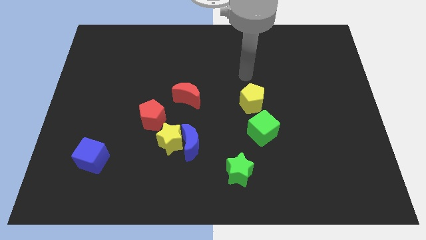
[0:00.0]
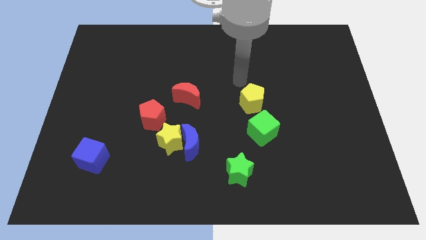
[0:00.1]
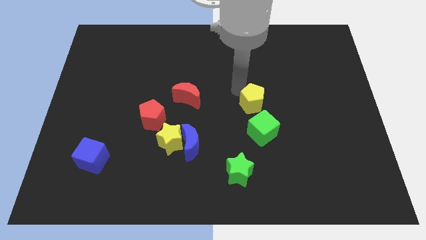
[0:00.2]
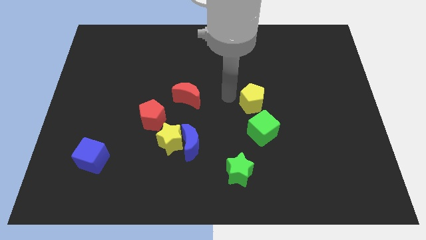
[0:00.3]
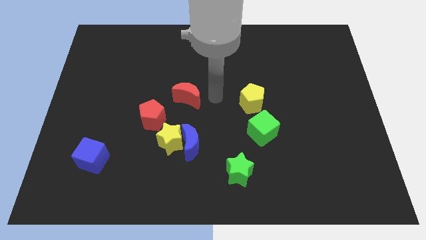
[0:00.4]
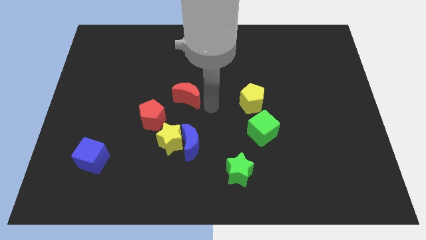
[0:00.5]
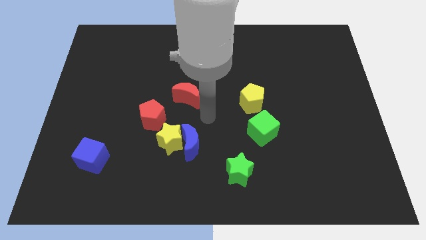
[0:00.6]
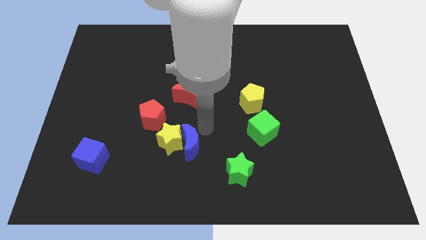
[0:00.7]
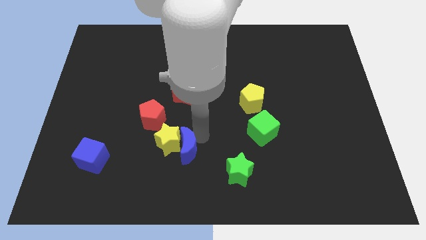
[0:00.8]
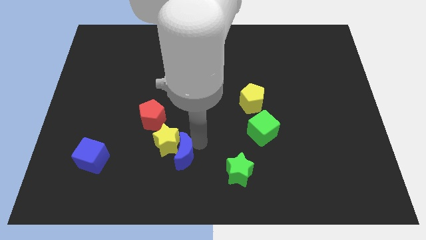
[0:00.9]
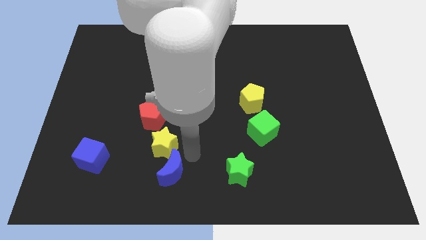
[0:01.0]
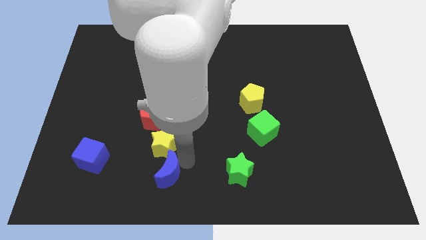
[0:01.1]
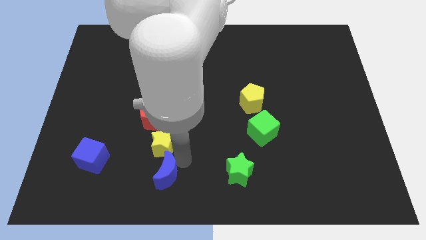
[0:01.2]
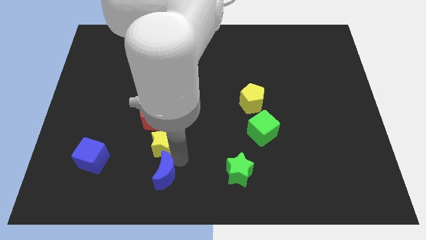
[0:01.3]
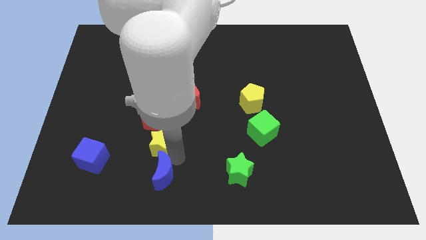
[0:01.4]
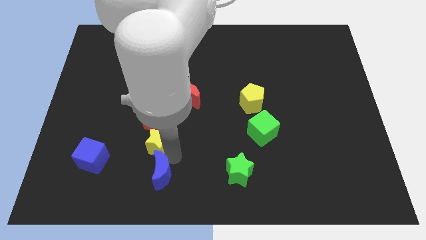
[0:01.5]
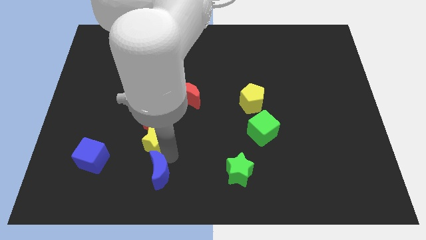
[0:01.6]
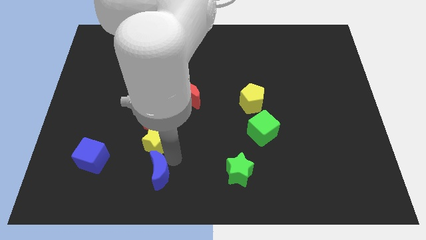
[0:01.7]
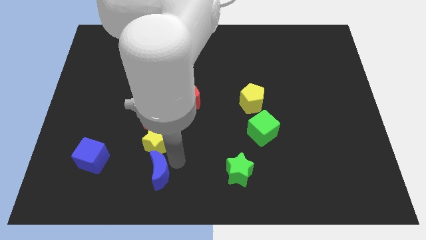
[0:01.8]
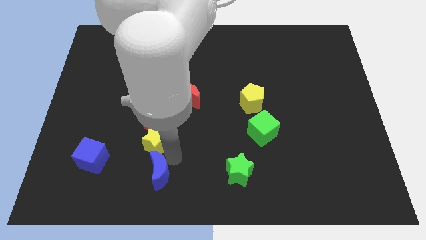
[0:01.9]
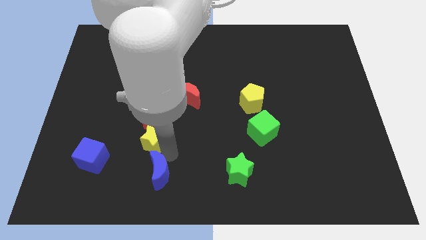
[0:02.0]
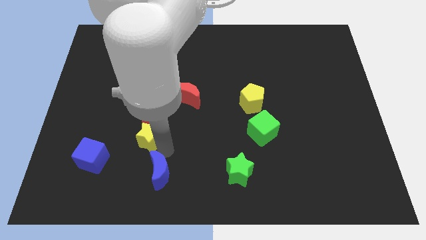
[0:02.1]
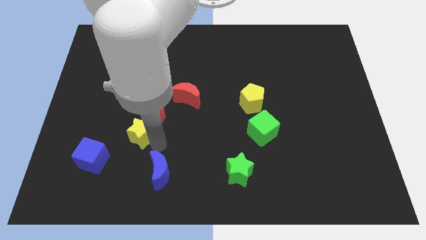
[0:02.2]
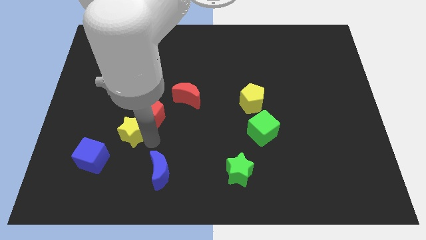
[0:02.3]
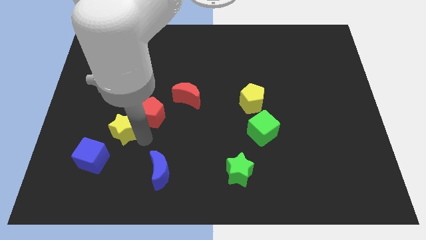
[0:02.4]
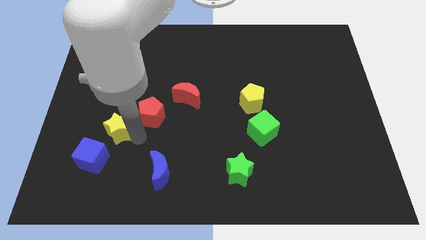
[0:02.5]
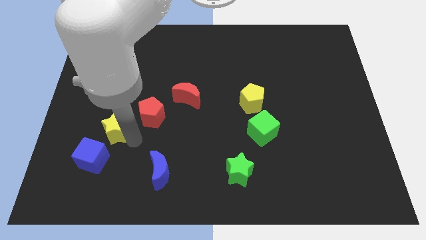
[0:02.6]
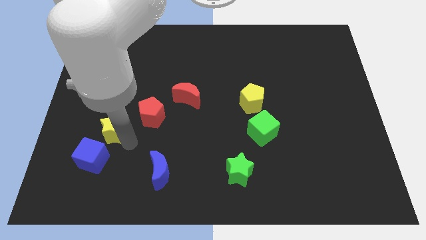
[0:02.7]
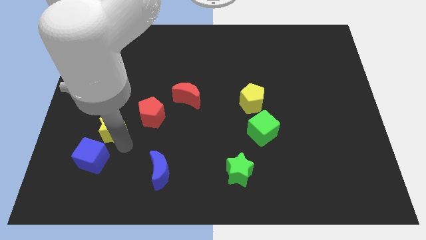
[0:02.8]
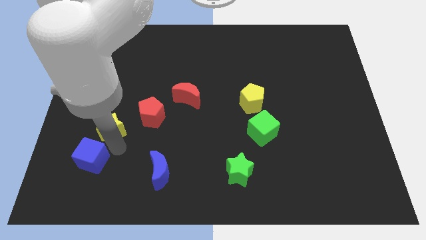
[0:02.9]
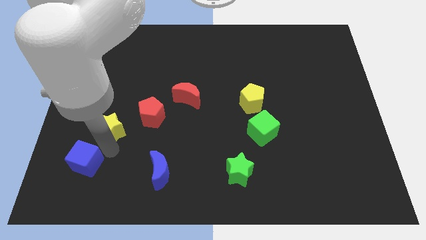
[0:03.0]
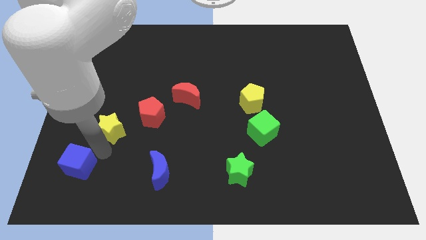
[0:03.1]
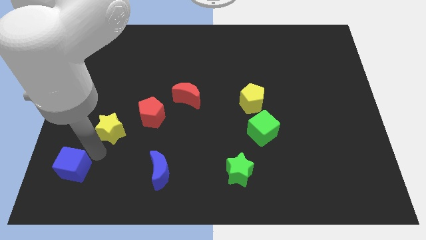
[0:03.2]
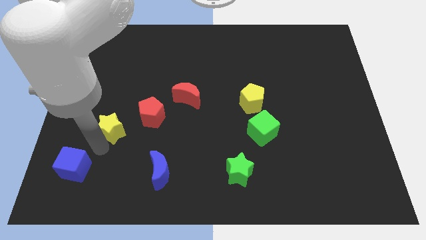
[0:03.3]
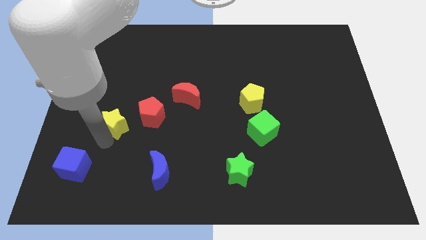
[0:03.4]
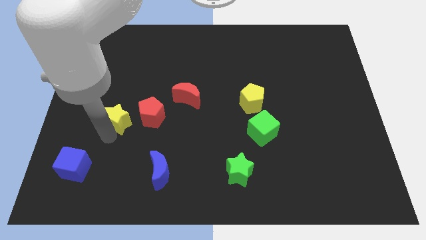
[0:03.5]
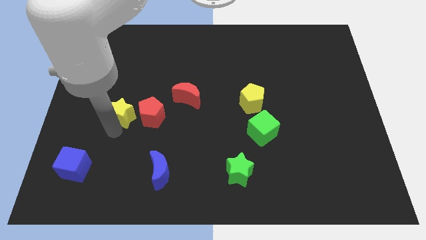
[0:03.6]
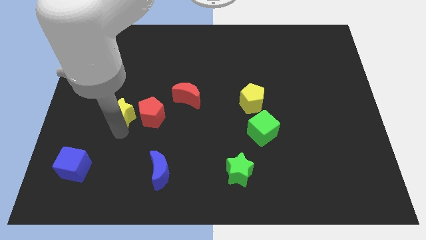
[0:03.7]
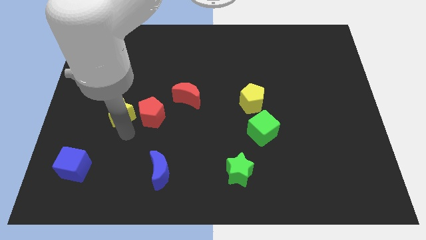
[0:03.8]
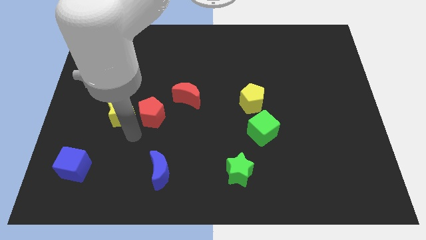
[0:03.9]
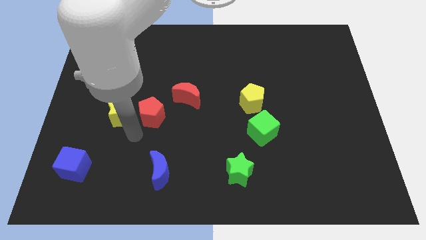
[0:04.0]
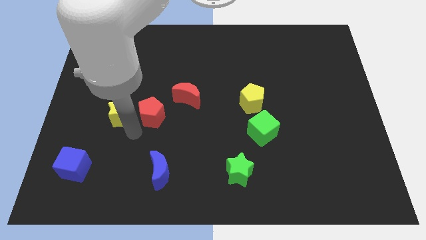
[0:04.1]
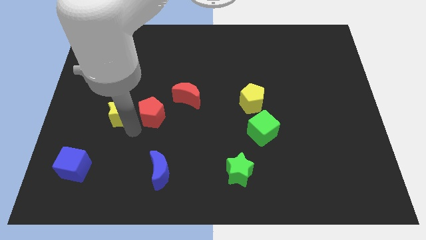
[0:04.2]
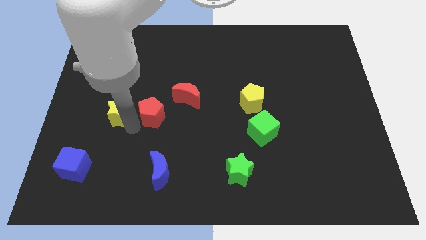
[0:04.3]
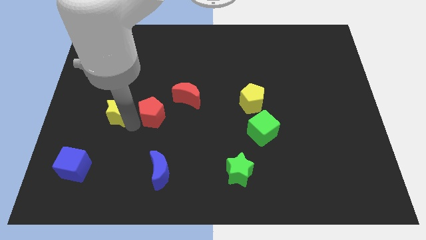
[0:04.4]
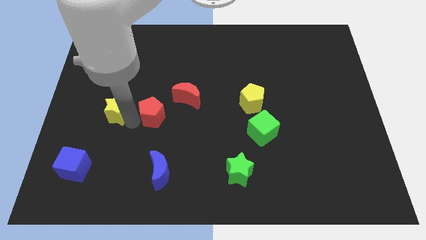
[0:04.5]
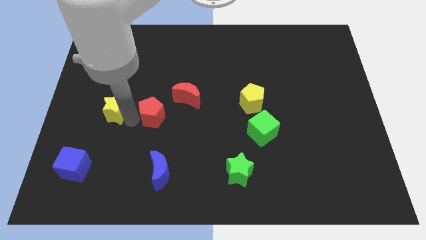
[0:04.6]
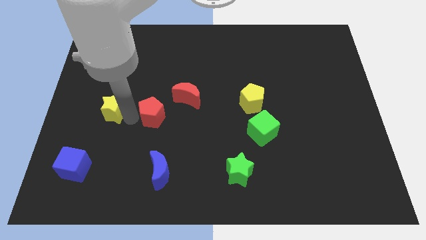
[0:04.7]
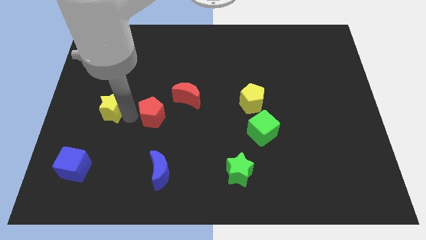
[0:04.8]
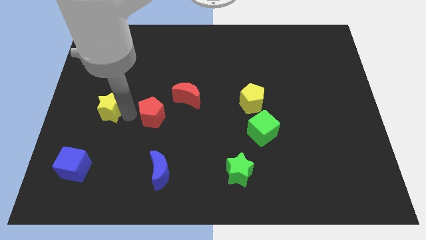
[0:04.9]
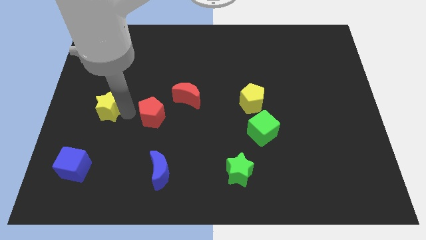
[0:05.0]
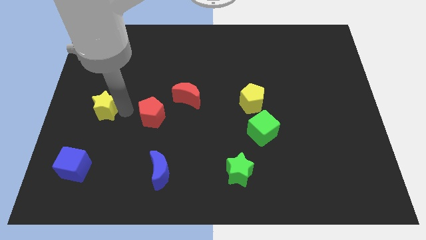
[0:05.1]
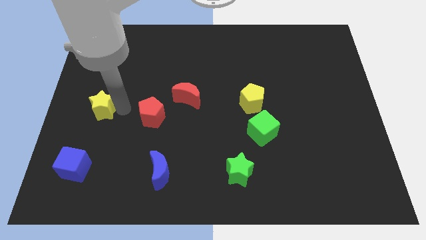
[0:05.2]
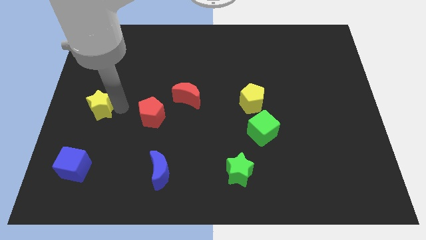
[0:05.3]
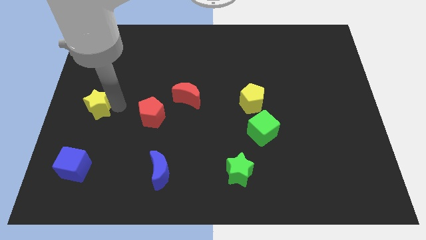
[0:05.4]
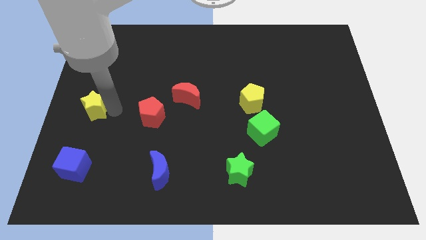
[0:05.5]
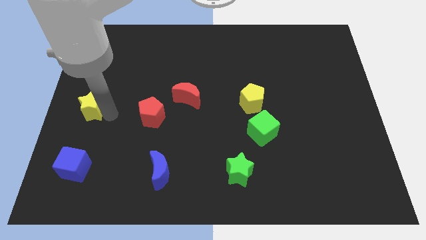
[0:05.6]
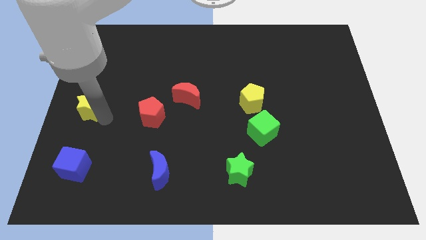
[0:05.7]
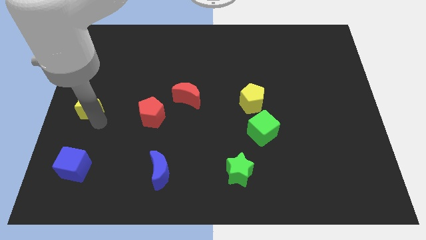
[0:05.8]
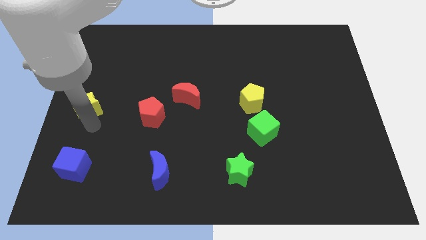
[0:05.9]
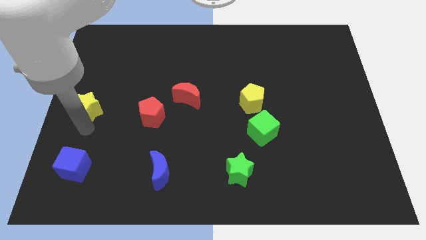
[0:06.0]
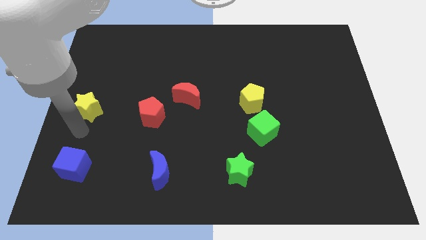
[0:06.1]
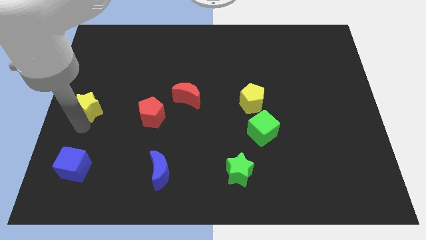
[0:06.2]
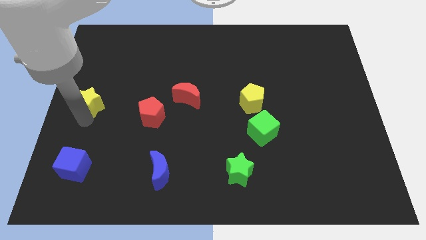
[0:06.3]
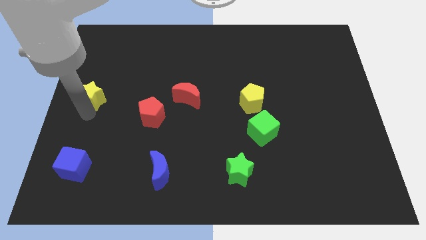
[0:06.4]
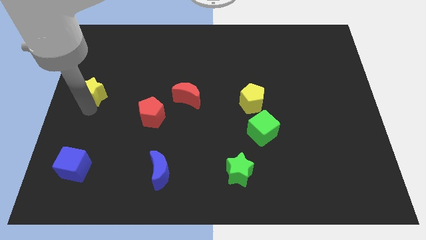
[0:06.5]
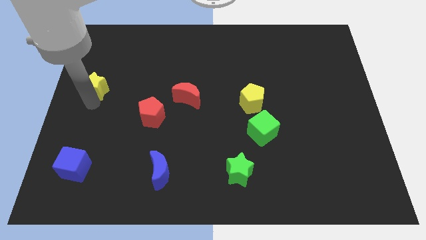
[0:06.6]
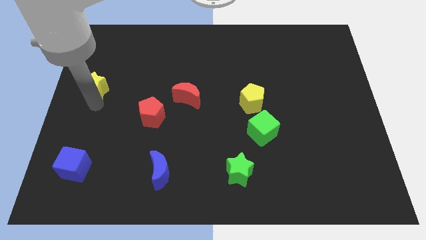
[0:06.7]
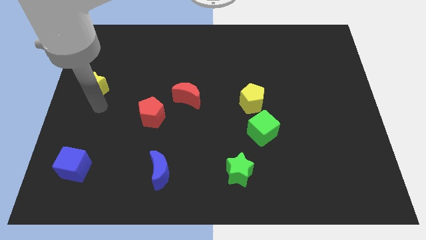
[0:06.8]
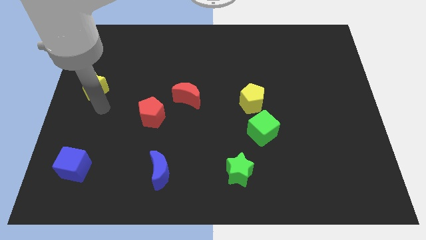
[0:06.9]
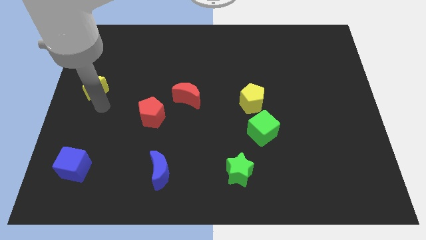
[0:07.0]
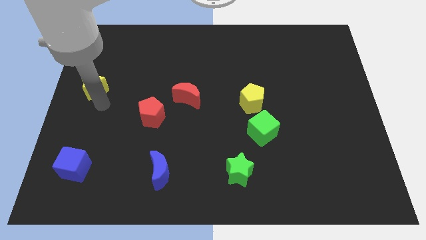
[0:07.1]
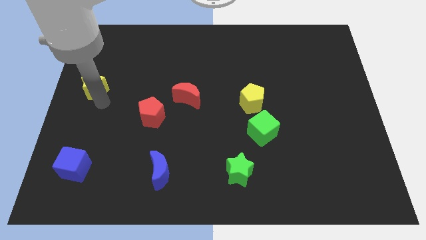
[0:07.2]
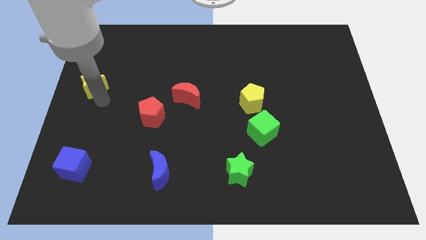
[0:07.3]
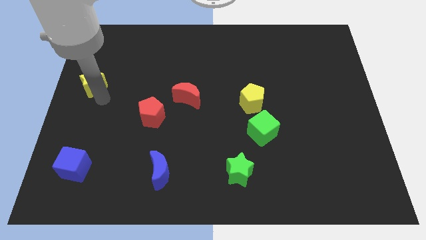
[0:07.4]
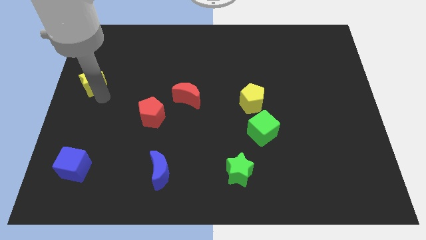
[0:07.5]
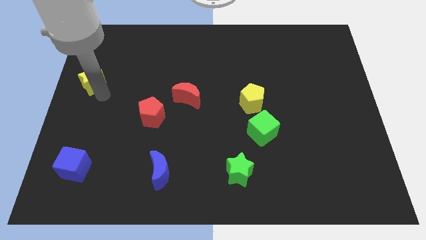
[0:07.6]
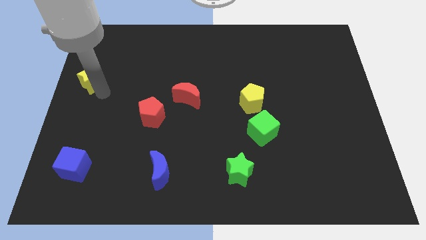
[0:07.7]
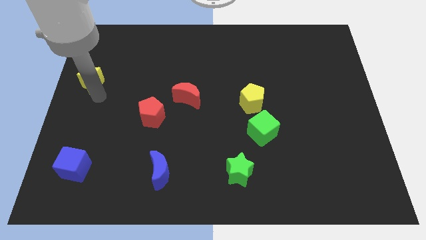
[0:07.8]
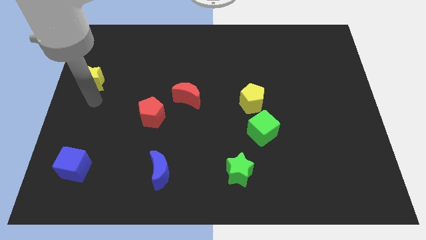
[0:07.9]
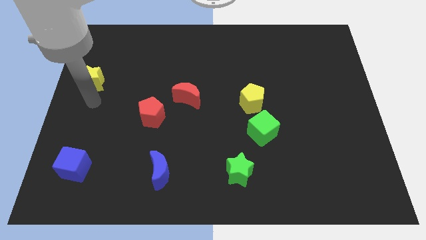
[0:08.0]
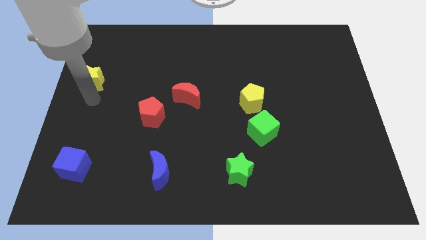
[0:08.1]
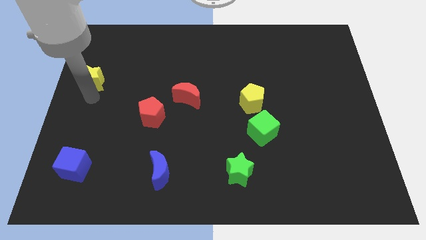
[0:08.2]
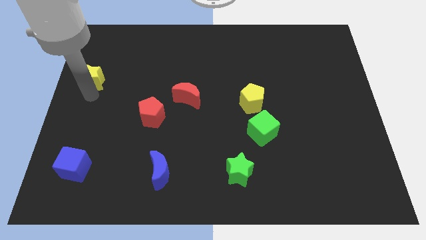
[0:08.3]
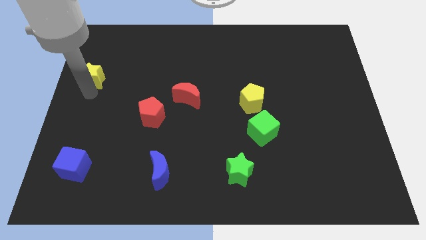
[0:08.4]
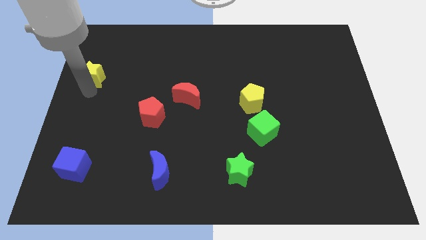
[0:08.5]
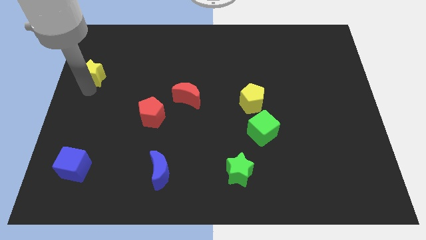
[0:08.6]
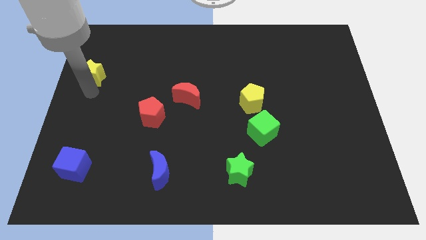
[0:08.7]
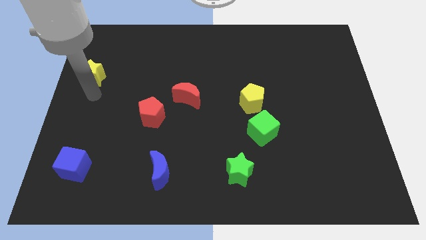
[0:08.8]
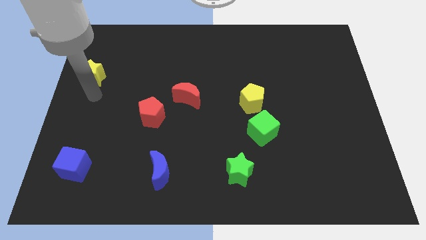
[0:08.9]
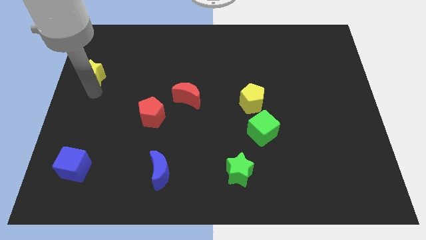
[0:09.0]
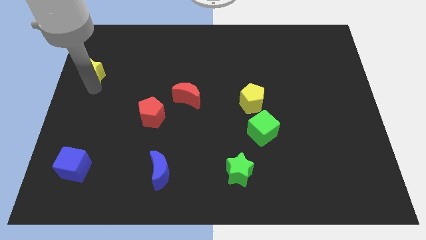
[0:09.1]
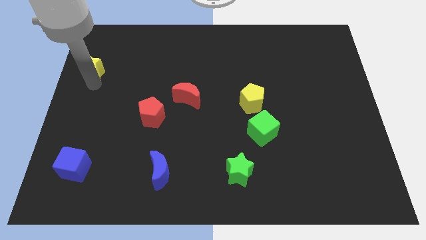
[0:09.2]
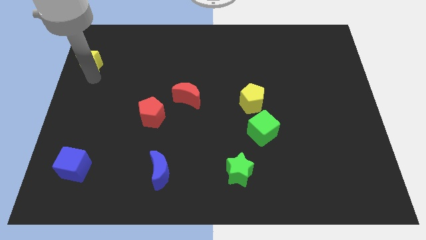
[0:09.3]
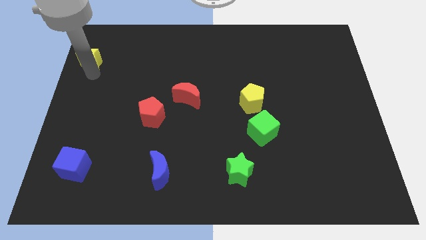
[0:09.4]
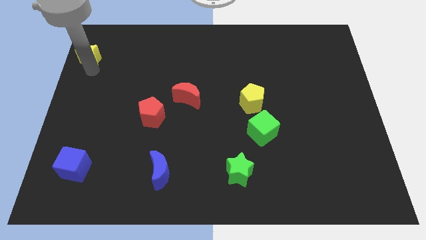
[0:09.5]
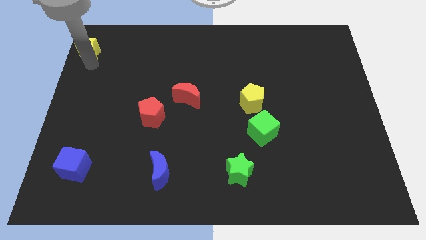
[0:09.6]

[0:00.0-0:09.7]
put the yellow star to the top left of the board
